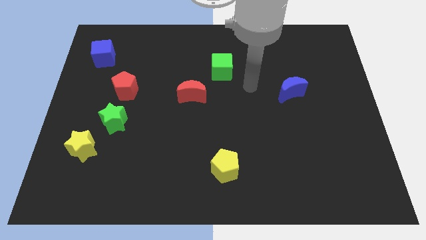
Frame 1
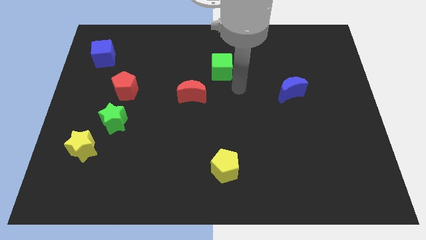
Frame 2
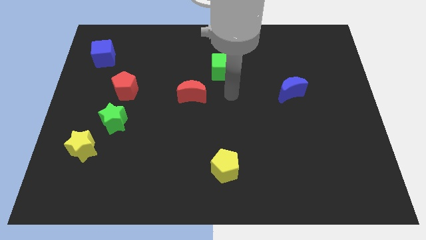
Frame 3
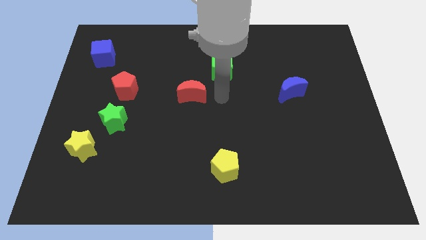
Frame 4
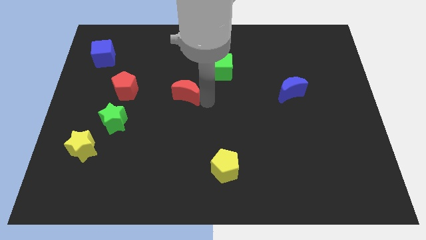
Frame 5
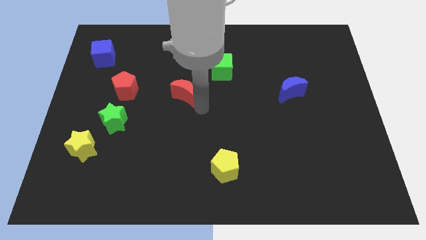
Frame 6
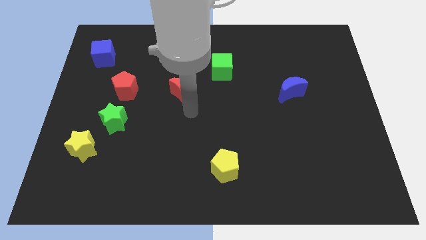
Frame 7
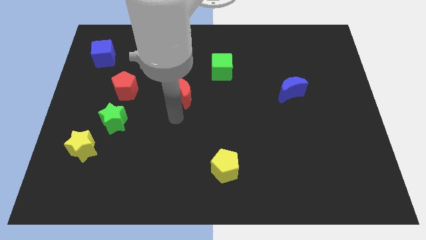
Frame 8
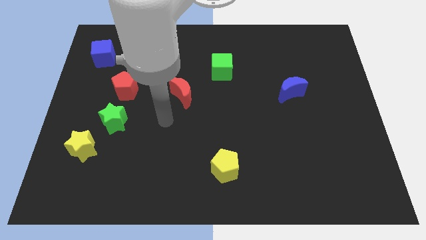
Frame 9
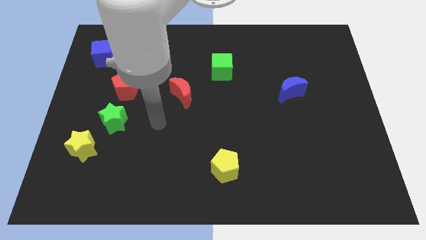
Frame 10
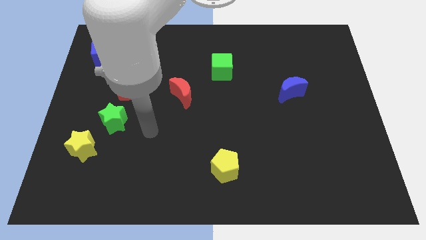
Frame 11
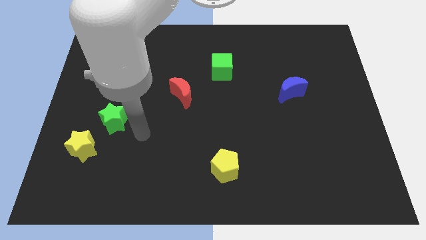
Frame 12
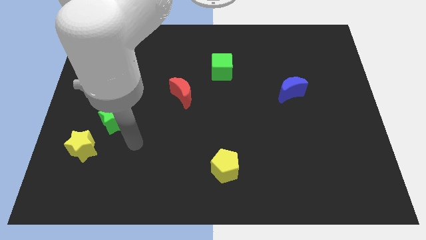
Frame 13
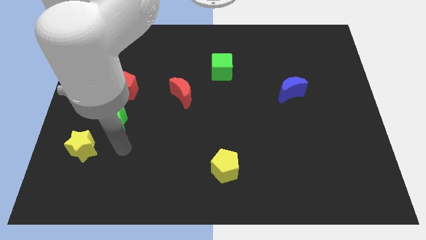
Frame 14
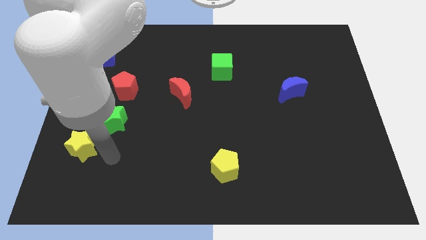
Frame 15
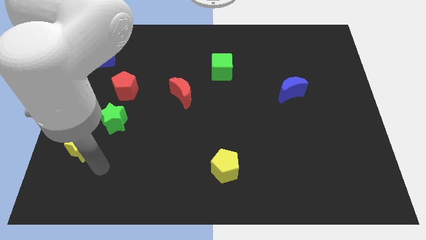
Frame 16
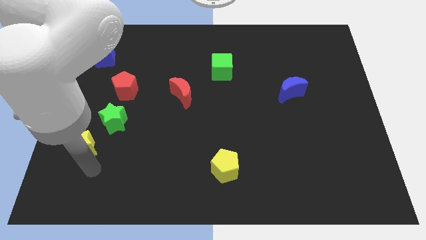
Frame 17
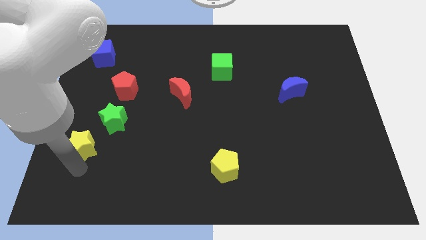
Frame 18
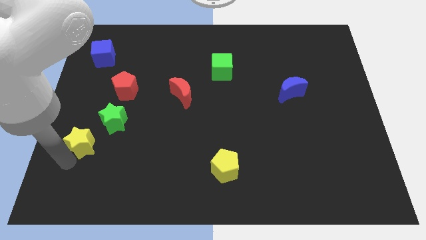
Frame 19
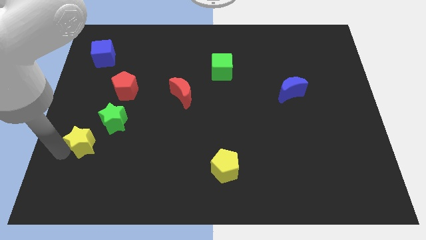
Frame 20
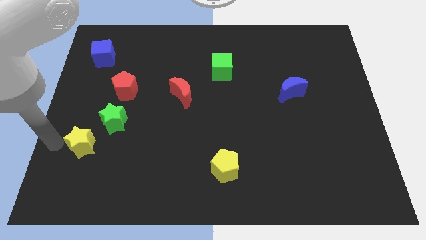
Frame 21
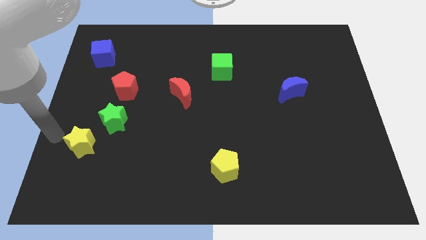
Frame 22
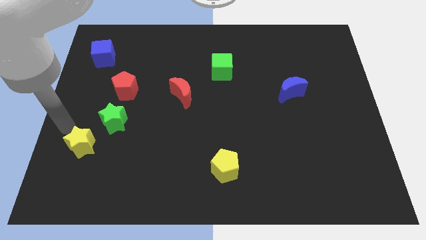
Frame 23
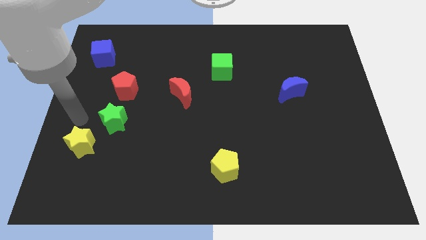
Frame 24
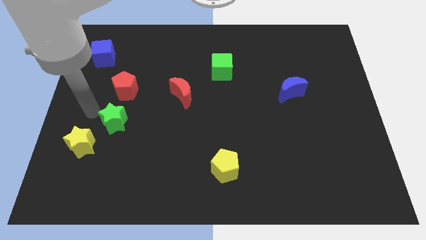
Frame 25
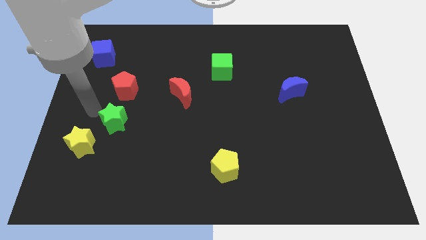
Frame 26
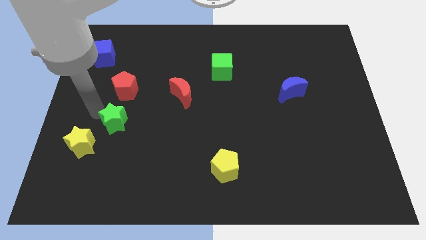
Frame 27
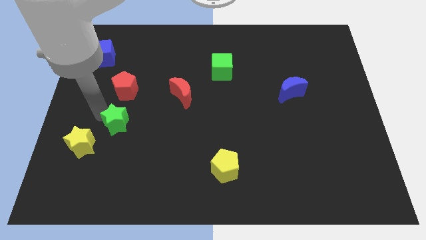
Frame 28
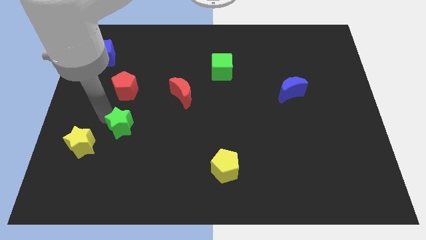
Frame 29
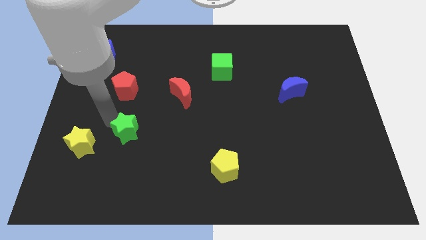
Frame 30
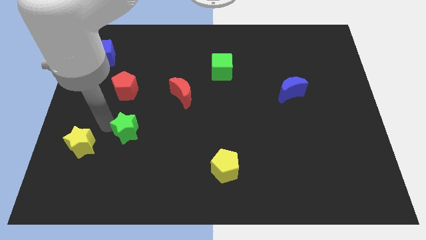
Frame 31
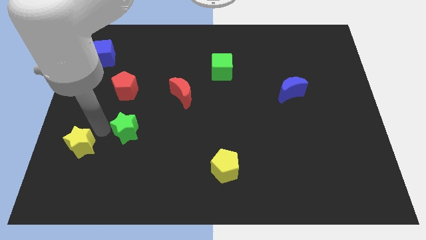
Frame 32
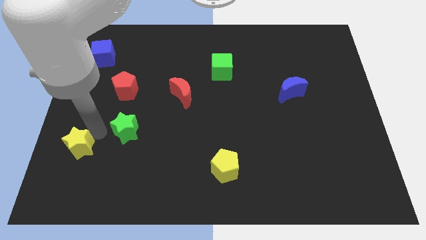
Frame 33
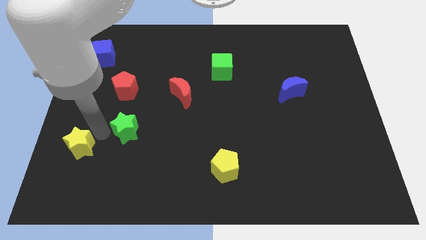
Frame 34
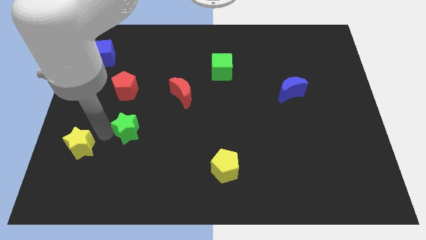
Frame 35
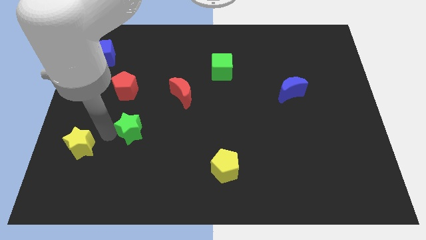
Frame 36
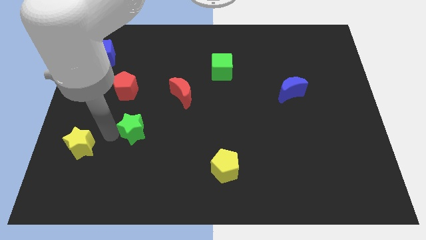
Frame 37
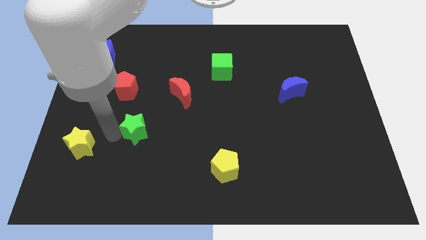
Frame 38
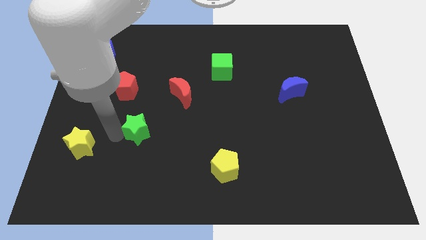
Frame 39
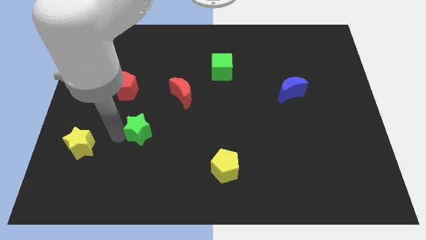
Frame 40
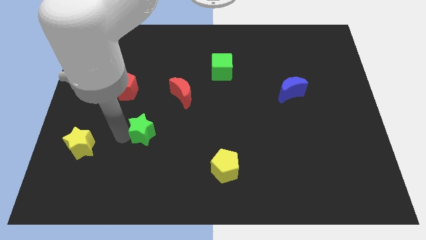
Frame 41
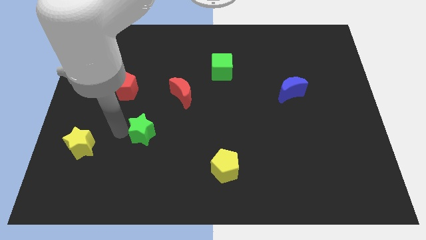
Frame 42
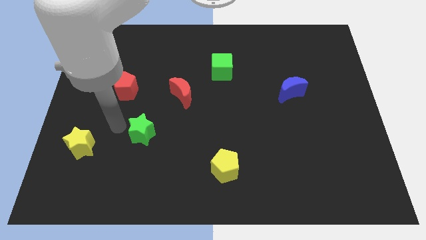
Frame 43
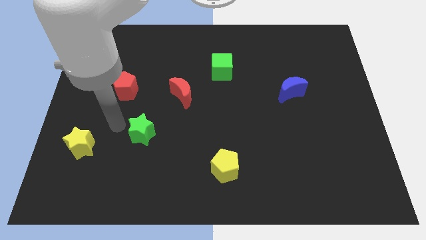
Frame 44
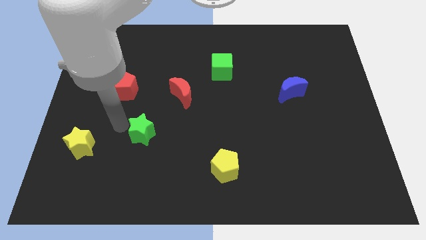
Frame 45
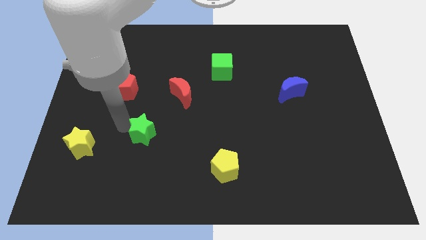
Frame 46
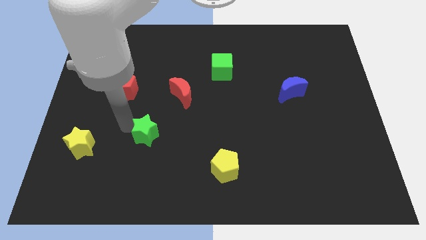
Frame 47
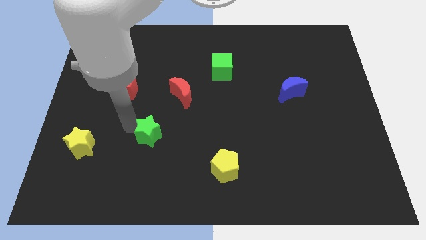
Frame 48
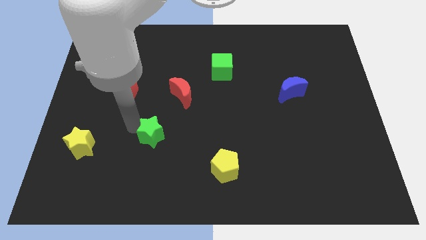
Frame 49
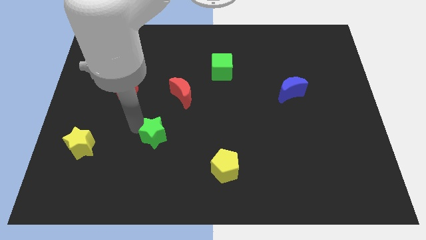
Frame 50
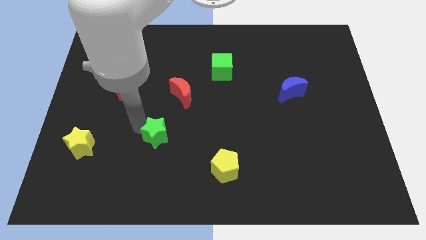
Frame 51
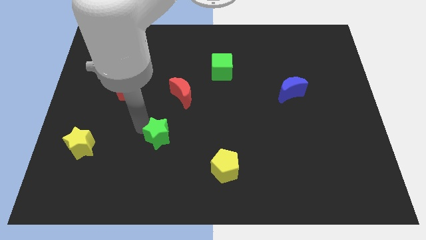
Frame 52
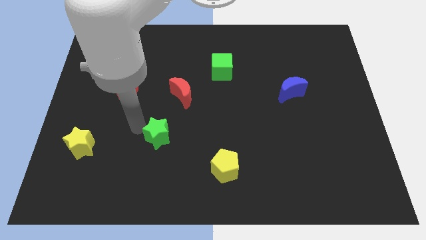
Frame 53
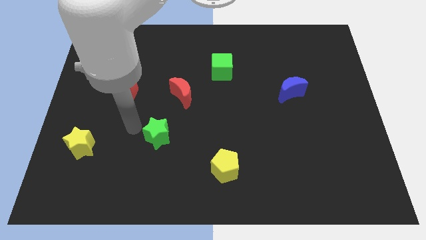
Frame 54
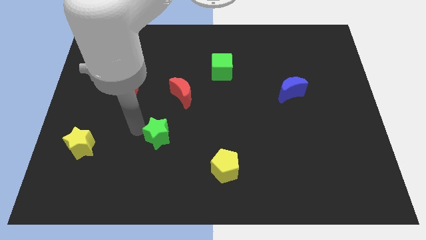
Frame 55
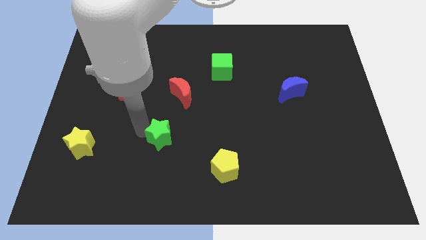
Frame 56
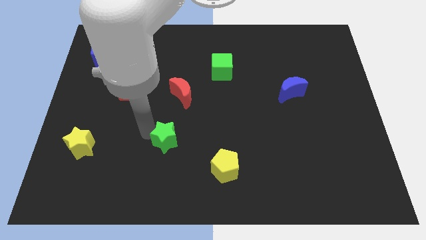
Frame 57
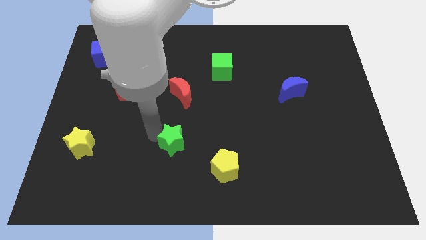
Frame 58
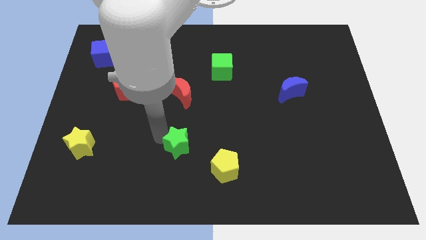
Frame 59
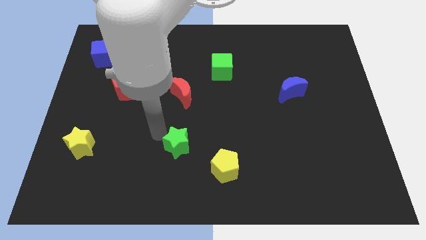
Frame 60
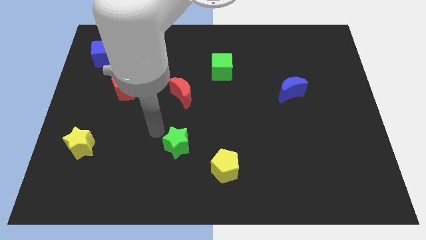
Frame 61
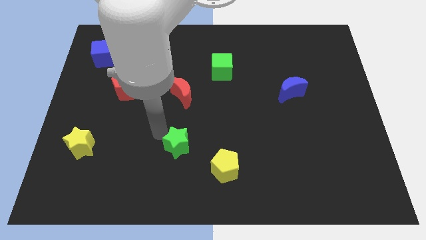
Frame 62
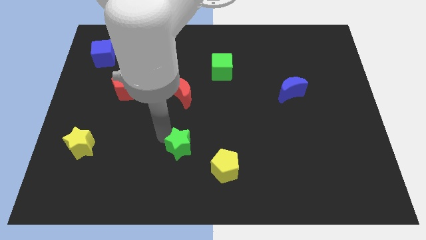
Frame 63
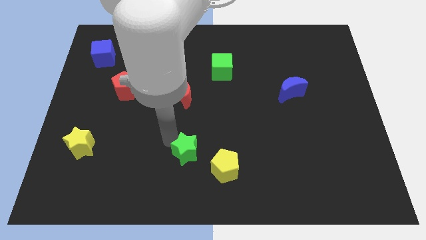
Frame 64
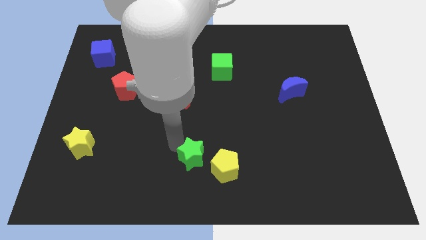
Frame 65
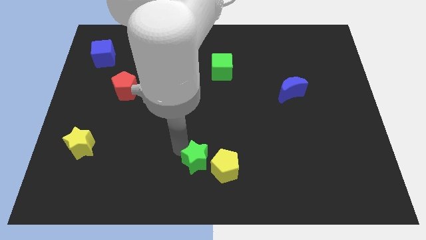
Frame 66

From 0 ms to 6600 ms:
slide the green star close to the yellow pentagon

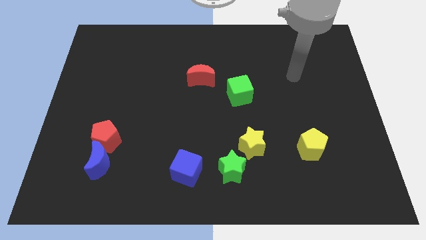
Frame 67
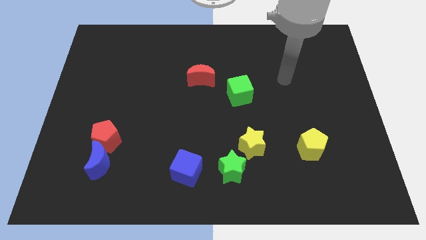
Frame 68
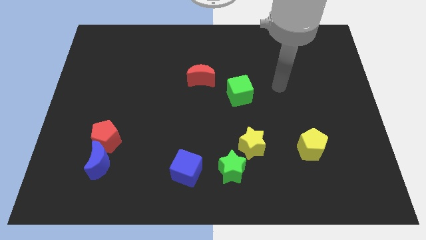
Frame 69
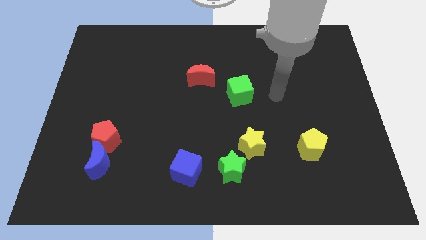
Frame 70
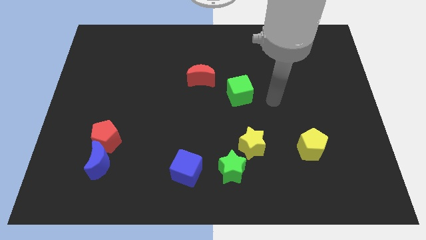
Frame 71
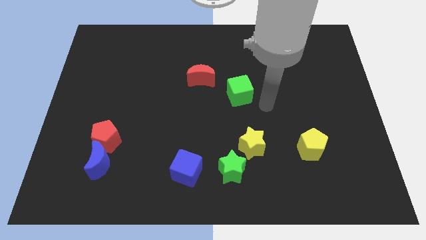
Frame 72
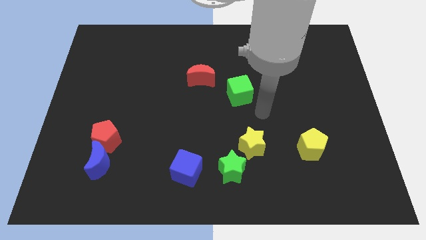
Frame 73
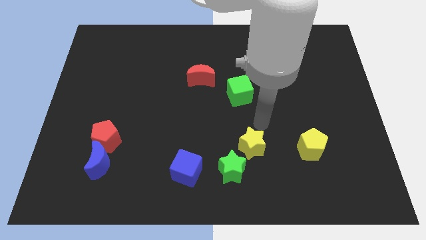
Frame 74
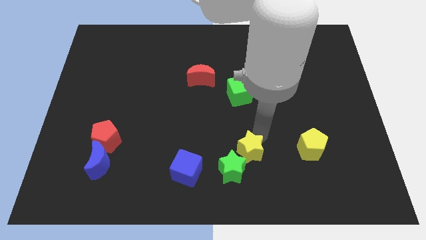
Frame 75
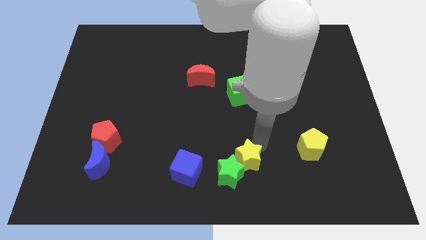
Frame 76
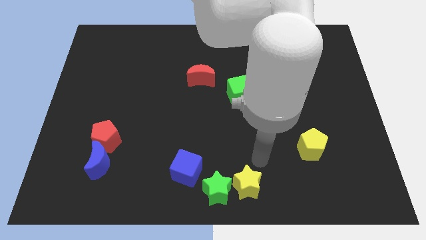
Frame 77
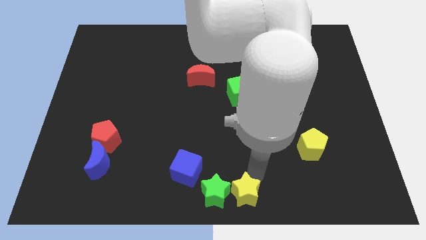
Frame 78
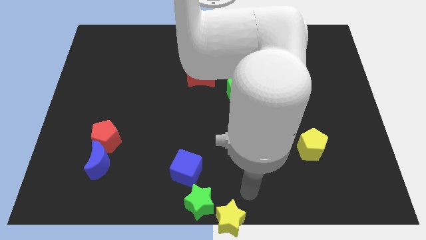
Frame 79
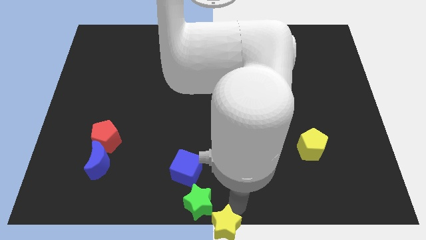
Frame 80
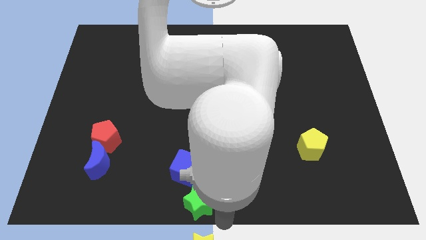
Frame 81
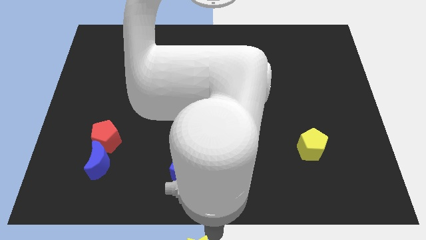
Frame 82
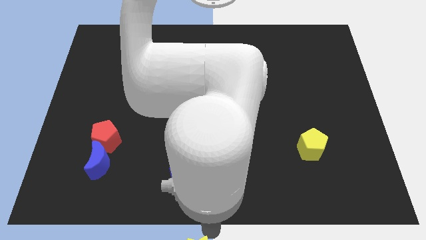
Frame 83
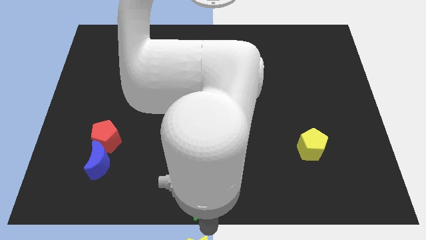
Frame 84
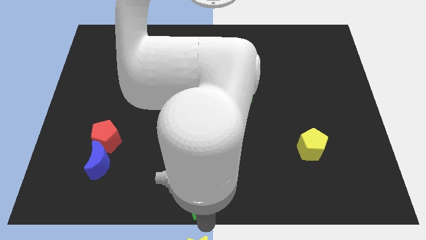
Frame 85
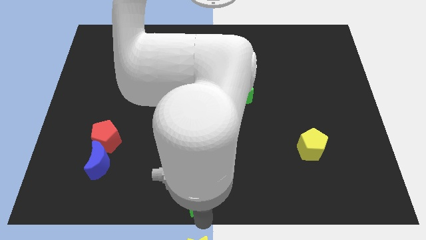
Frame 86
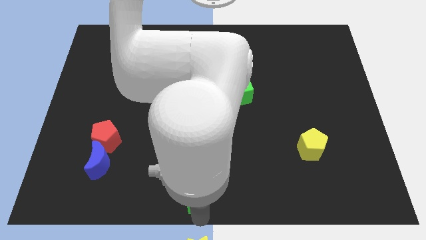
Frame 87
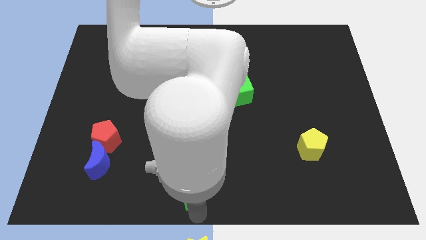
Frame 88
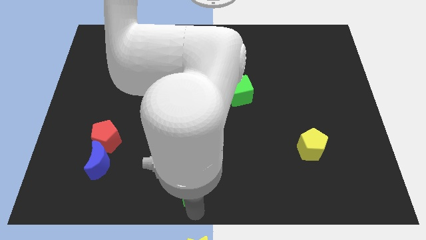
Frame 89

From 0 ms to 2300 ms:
move the green star next to the blue cube
